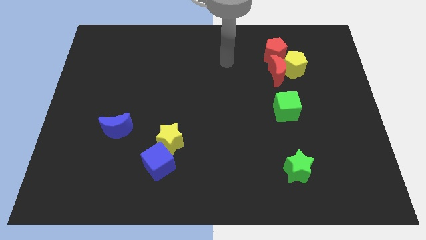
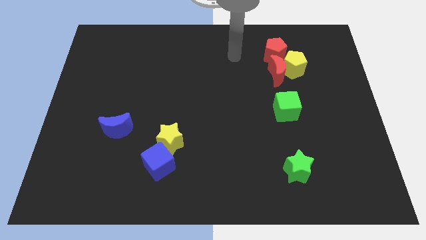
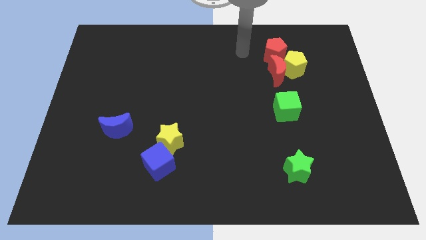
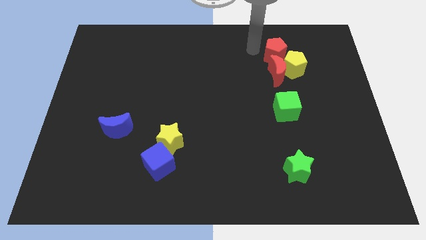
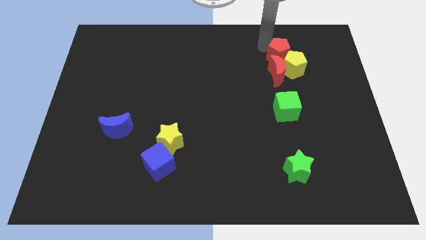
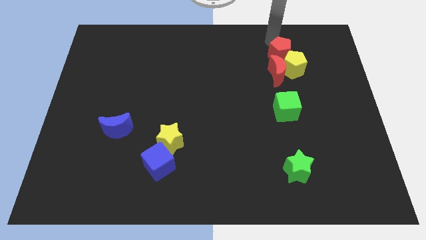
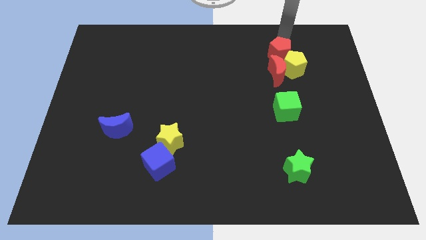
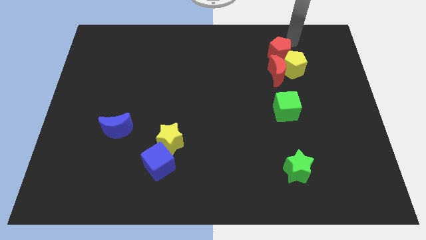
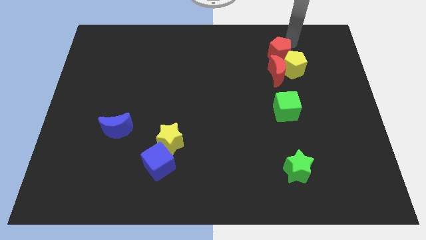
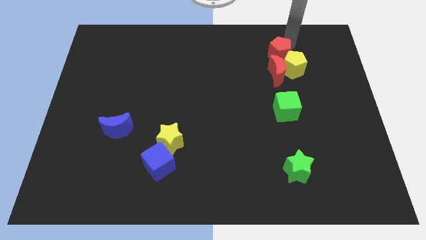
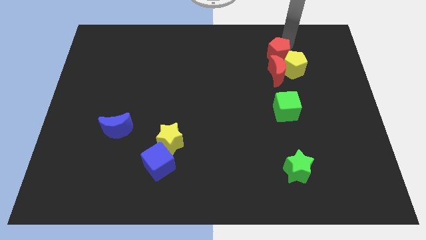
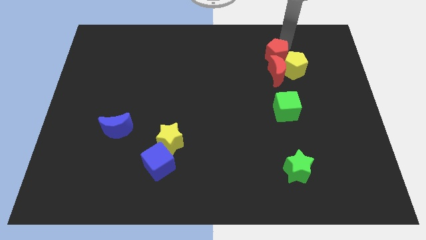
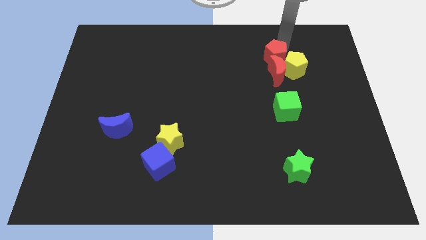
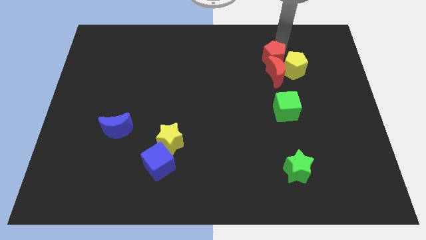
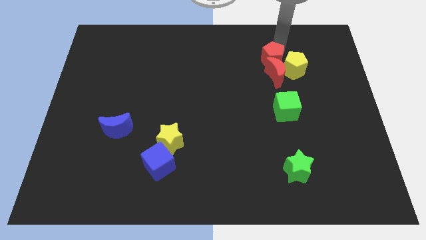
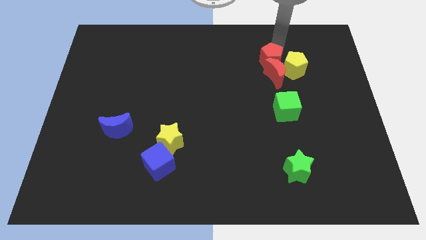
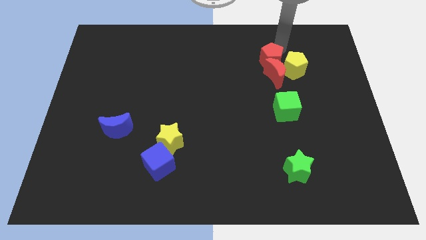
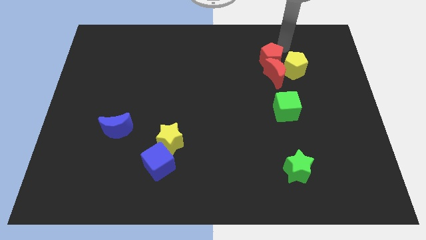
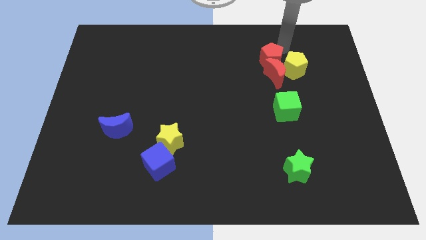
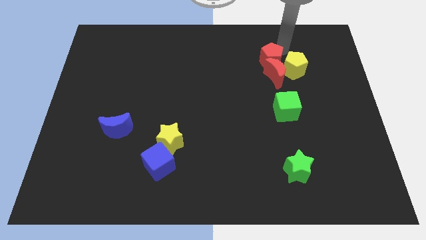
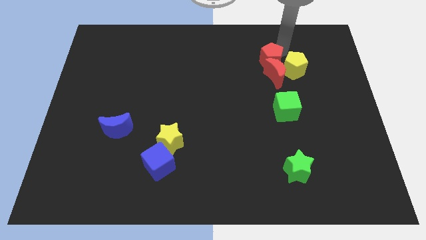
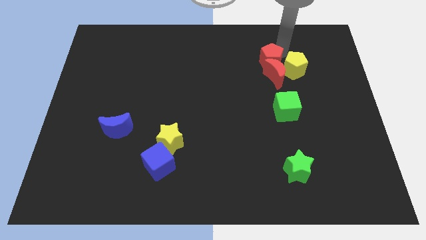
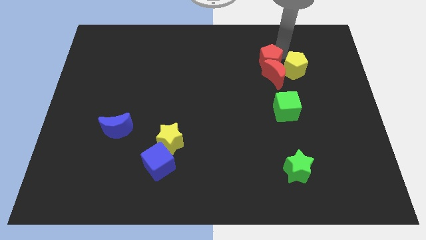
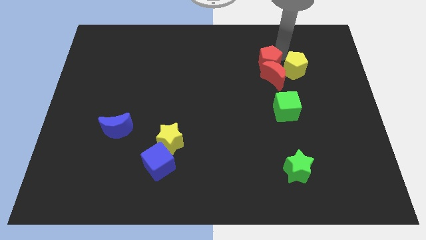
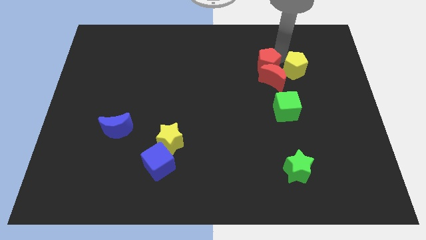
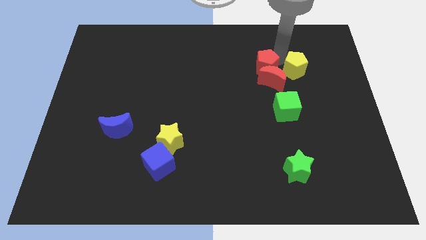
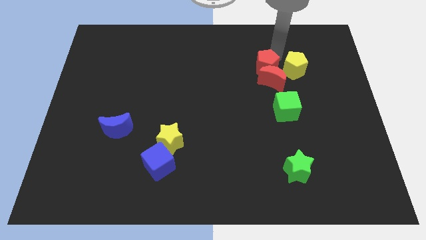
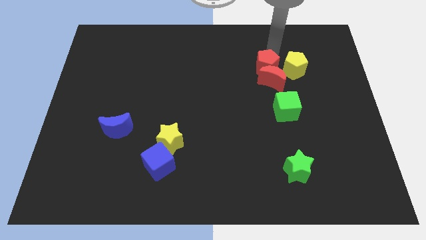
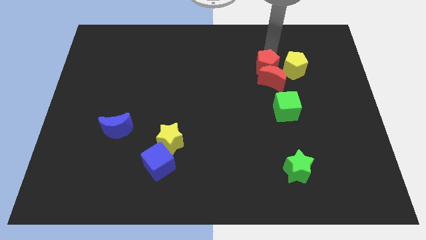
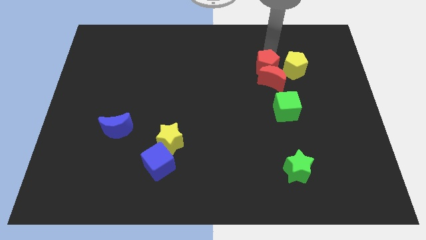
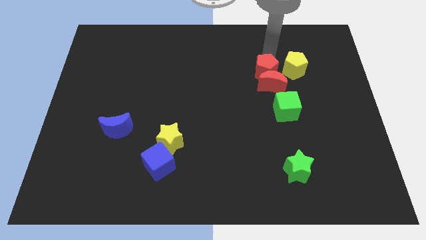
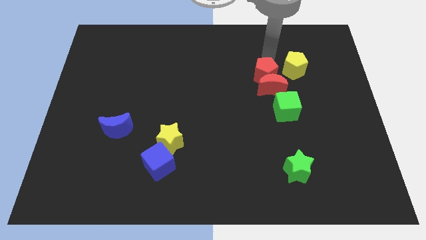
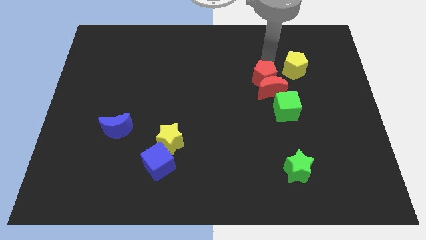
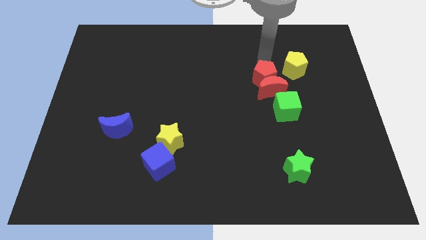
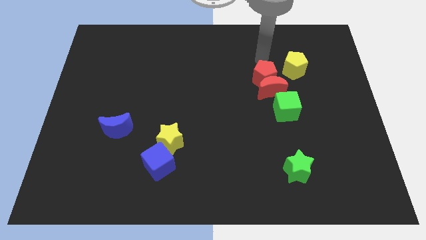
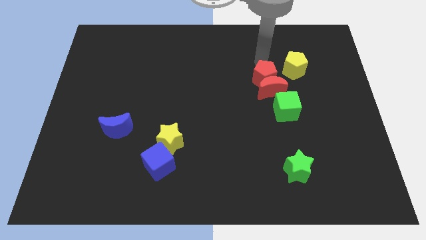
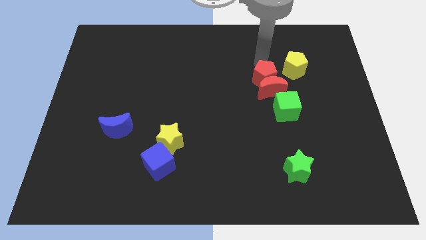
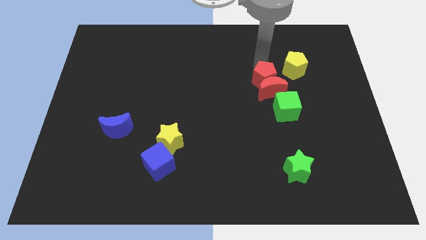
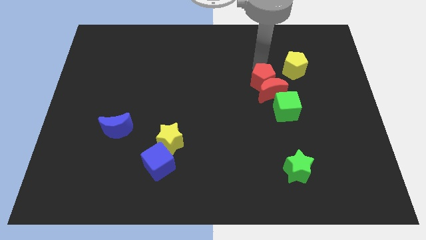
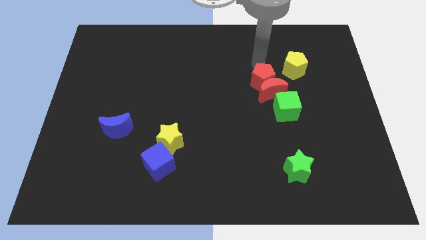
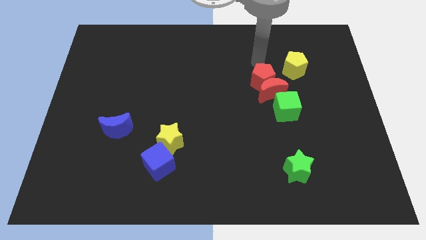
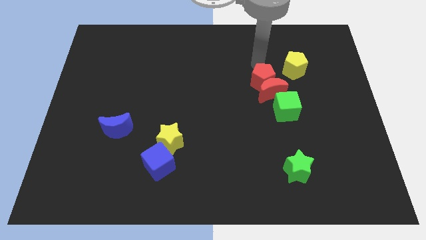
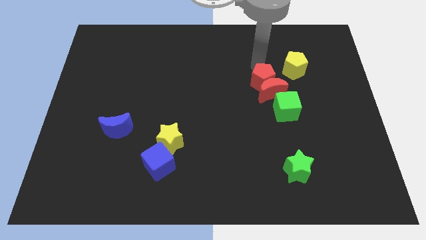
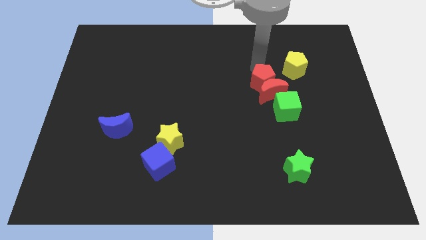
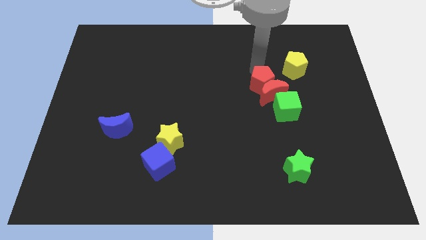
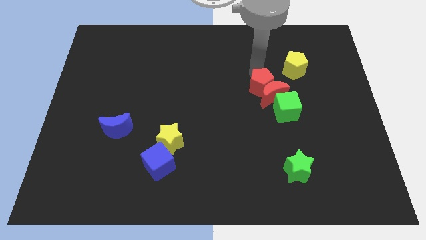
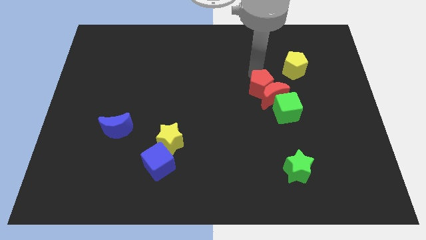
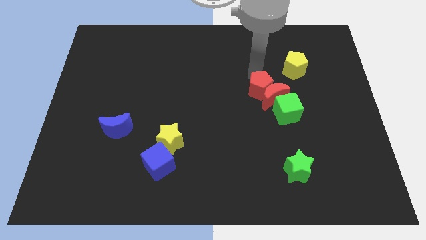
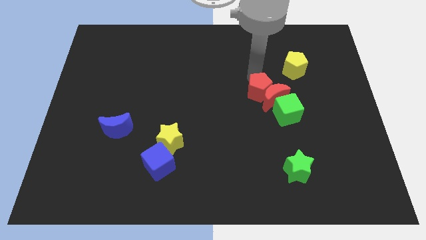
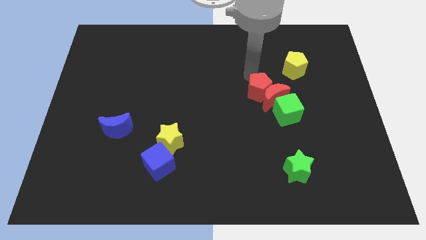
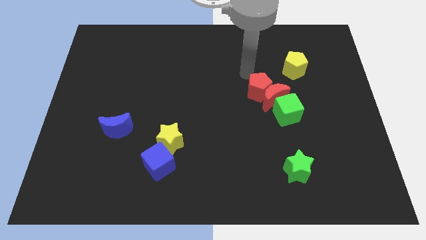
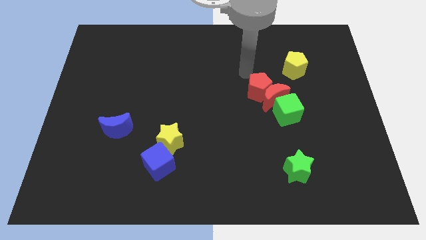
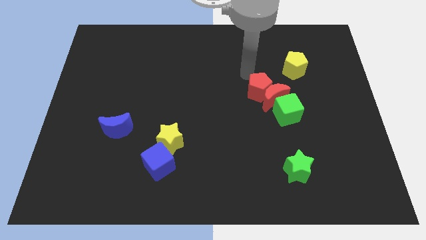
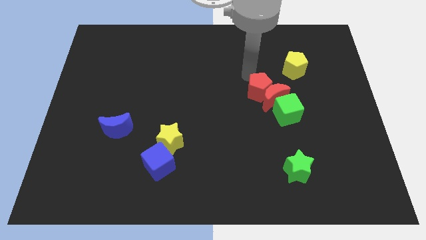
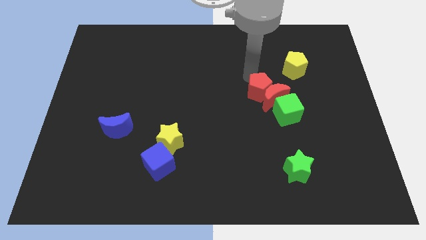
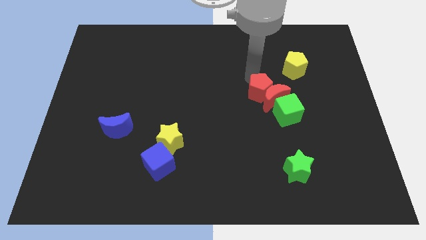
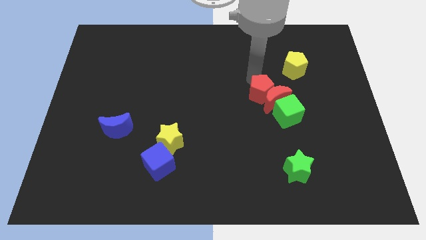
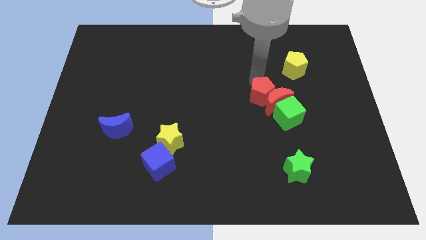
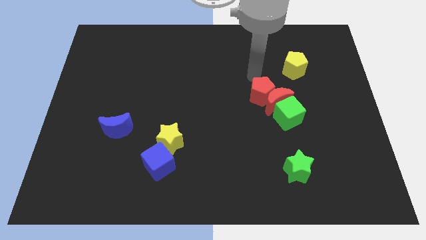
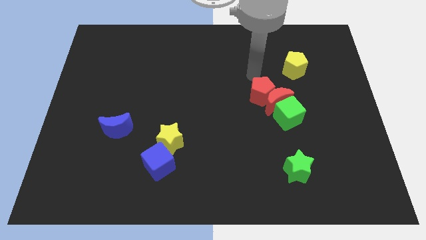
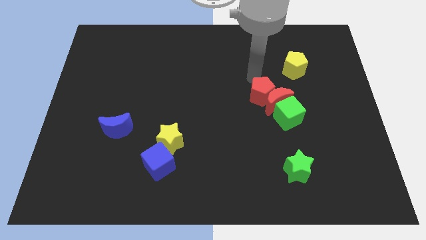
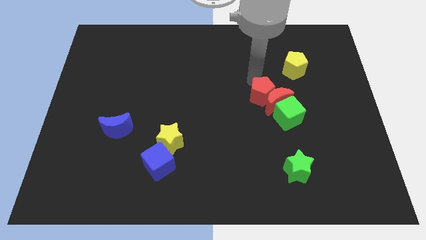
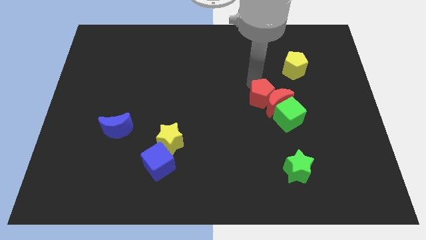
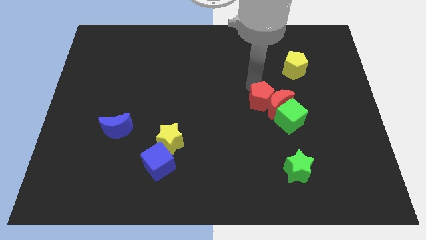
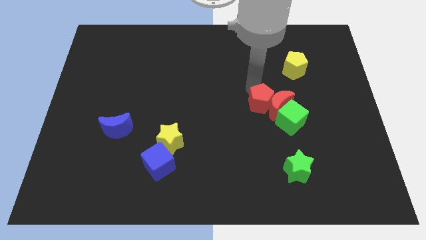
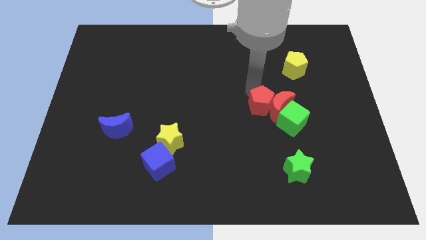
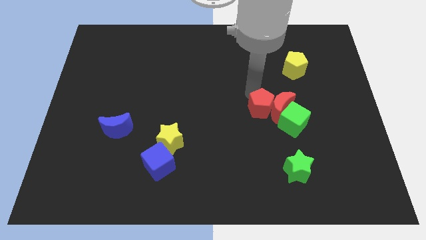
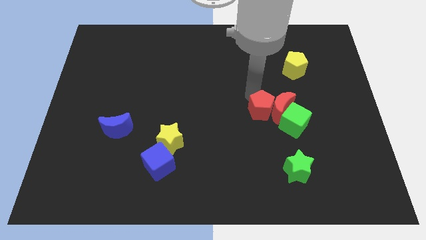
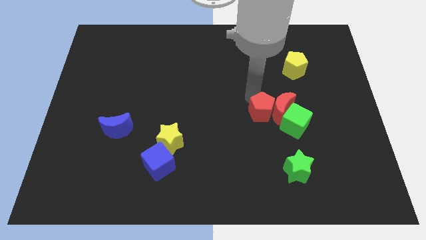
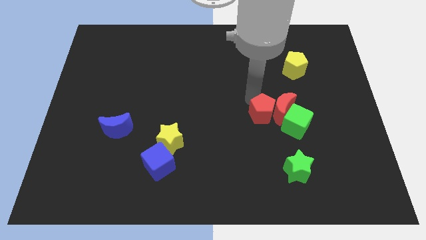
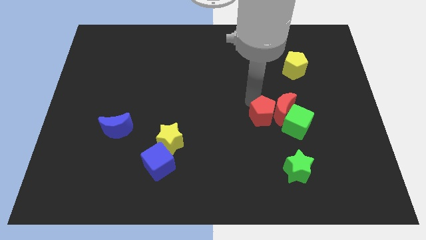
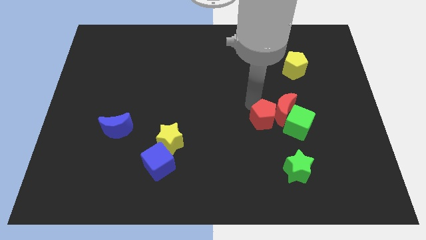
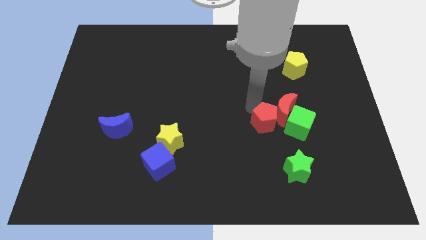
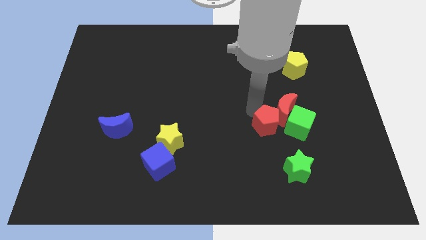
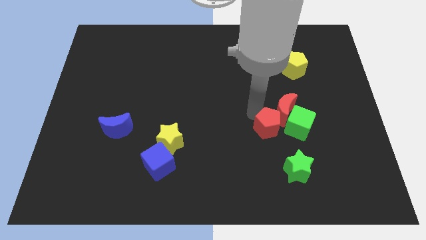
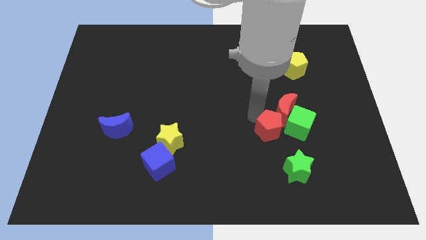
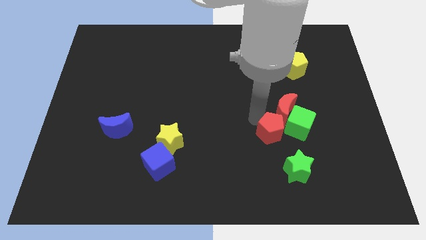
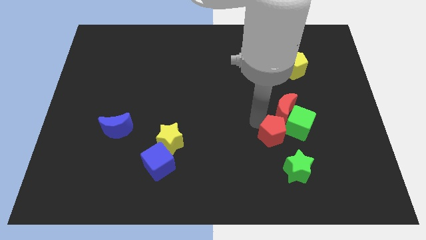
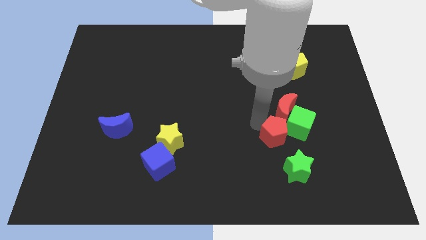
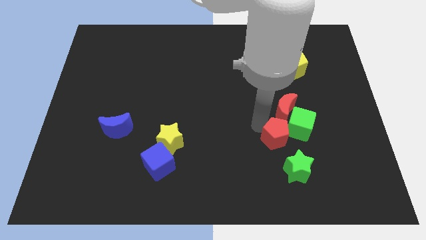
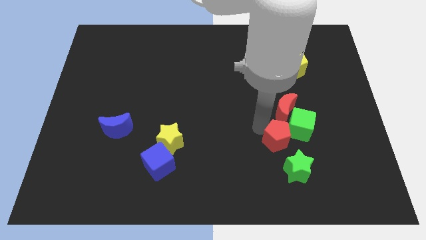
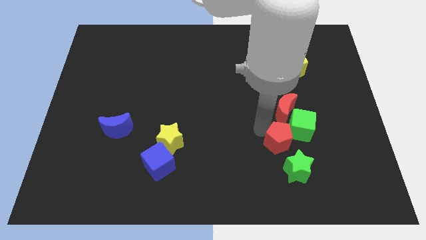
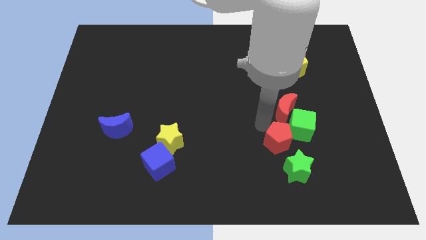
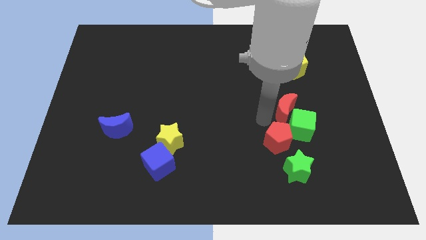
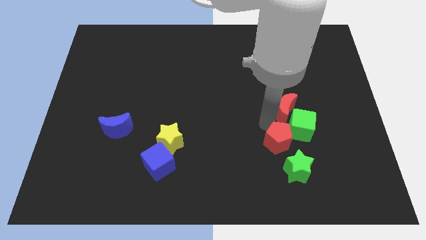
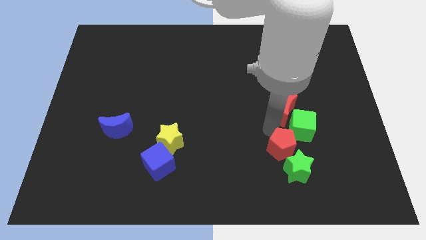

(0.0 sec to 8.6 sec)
push the red pentagon to the green star

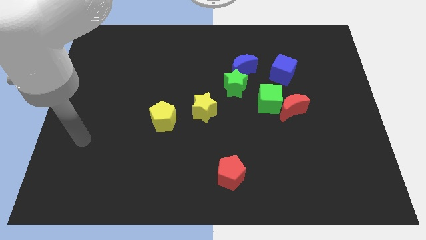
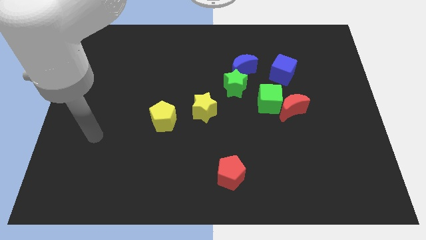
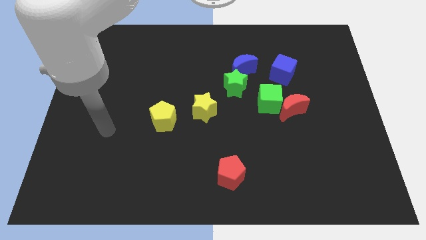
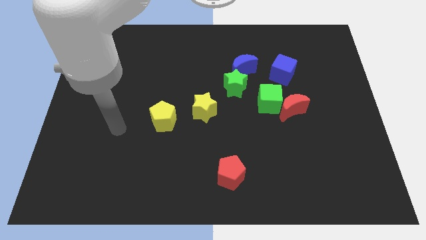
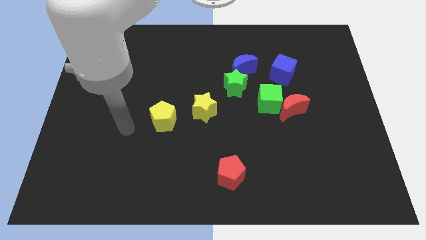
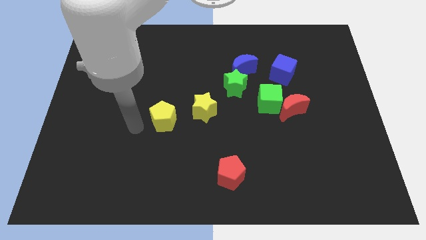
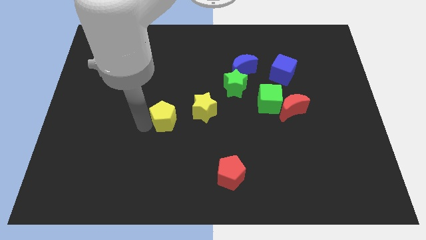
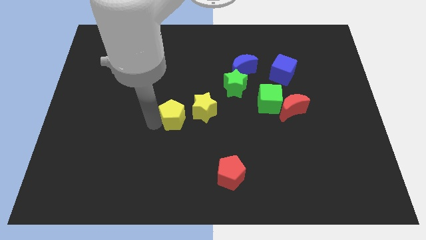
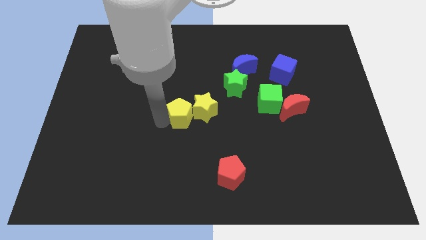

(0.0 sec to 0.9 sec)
slide the yellow pentagon next to the yellow star
